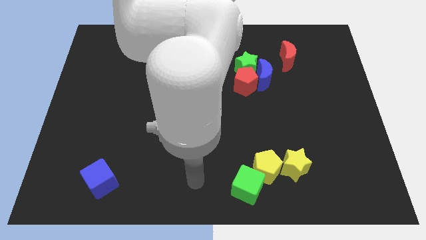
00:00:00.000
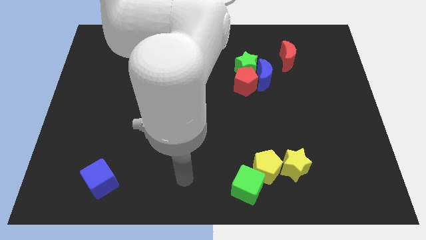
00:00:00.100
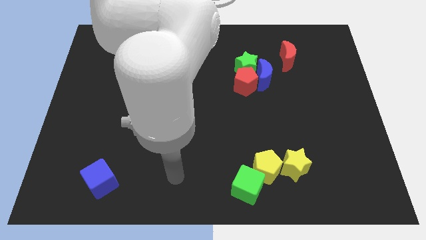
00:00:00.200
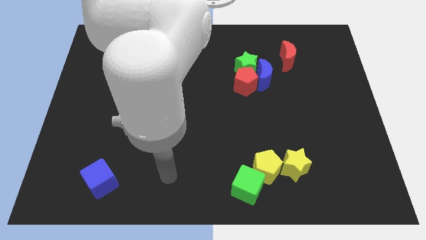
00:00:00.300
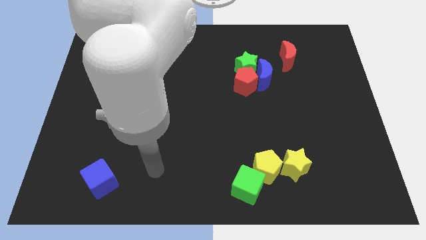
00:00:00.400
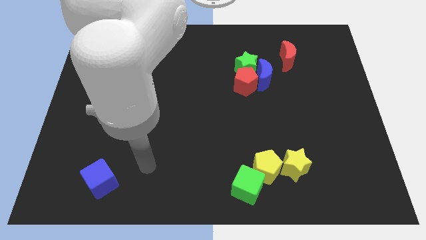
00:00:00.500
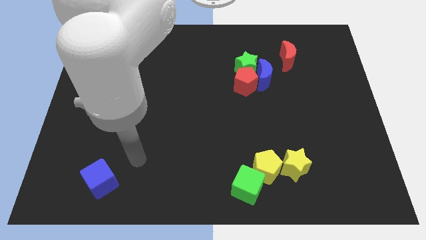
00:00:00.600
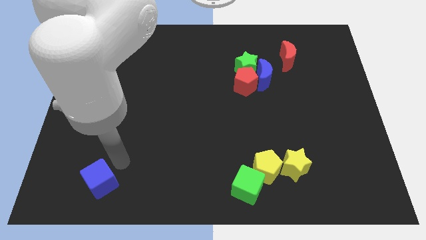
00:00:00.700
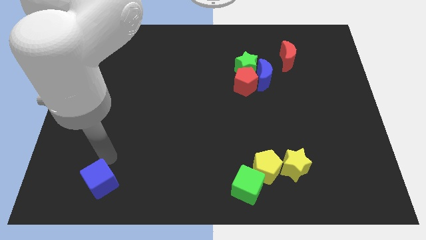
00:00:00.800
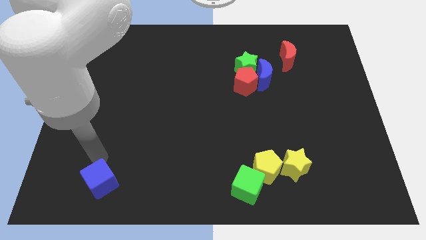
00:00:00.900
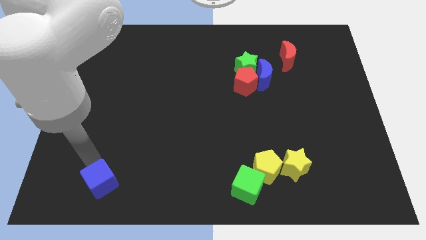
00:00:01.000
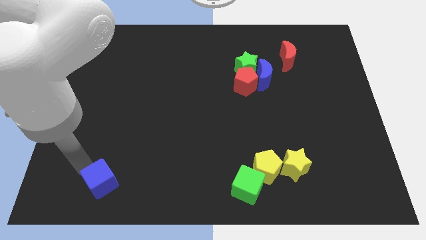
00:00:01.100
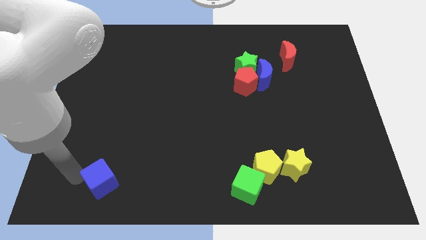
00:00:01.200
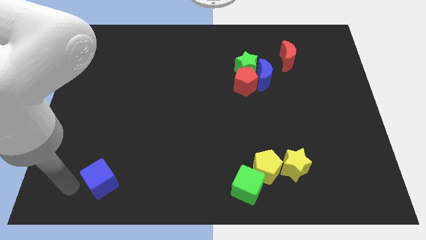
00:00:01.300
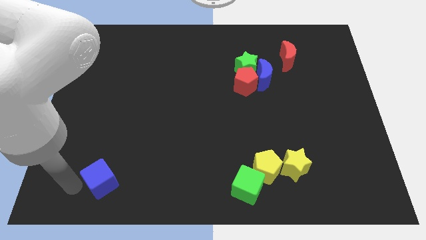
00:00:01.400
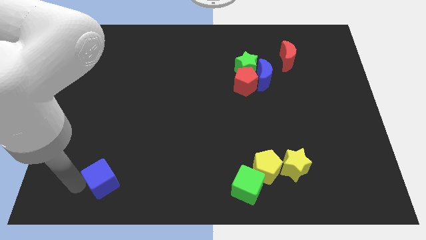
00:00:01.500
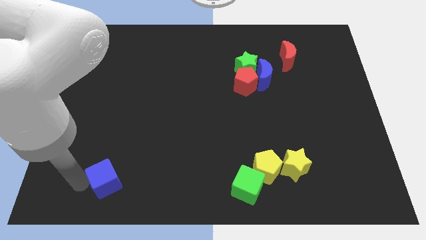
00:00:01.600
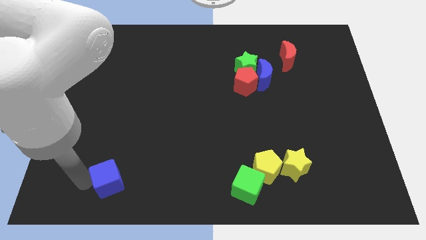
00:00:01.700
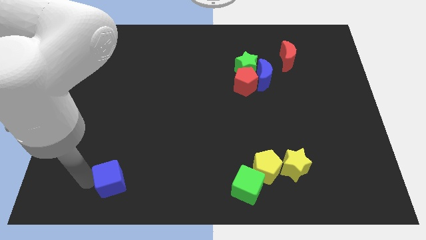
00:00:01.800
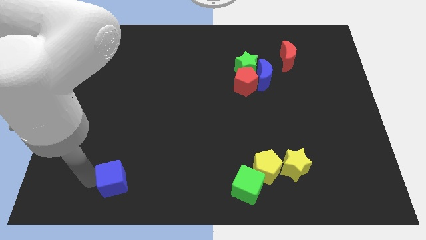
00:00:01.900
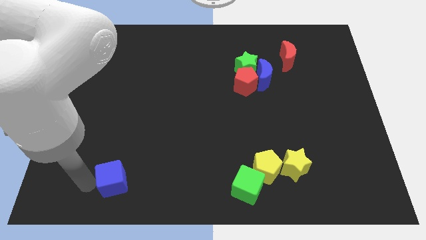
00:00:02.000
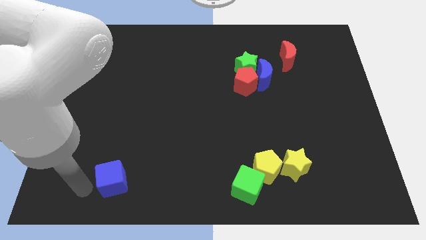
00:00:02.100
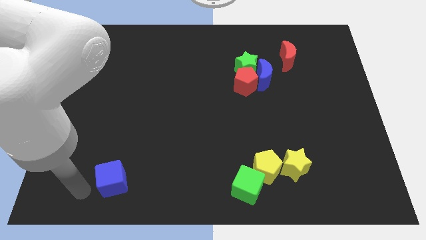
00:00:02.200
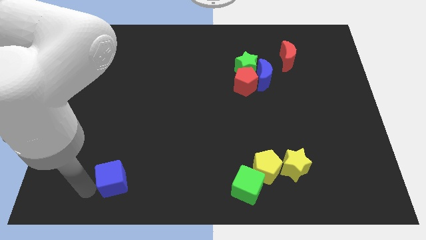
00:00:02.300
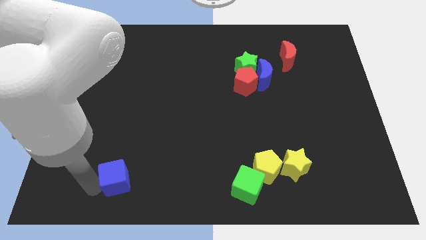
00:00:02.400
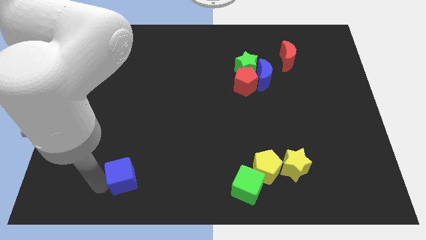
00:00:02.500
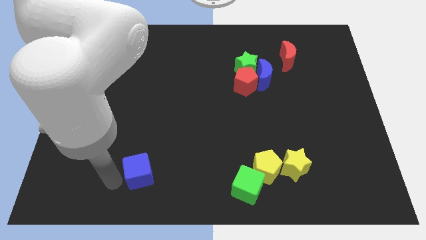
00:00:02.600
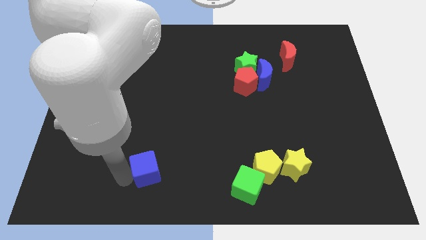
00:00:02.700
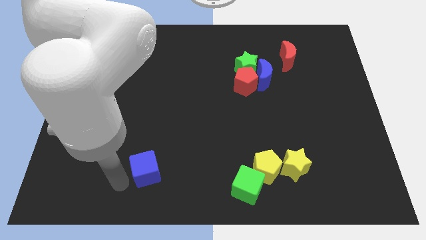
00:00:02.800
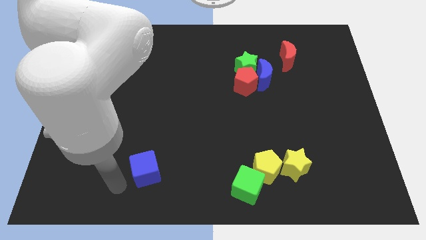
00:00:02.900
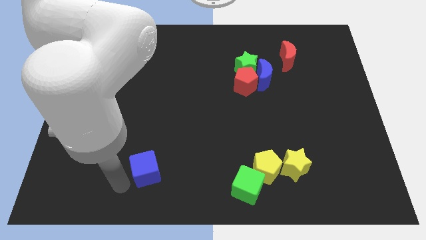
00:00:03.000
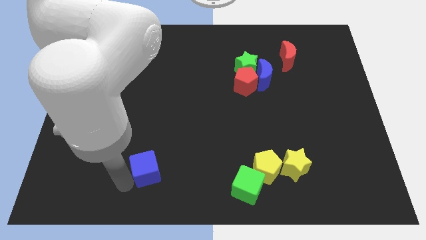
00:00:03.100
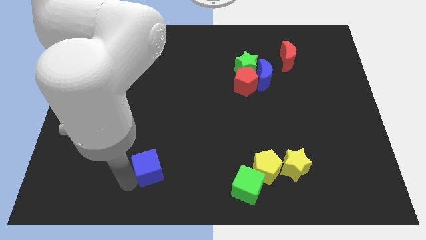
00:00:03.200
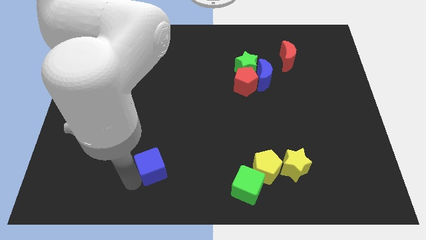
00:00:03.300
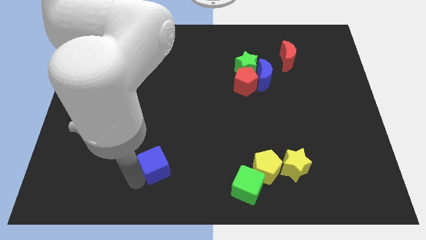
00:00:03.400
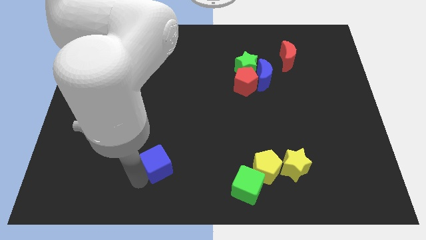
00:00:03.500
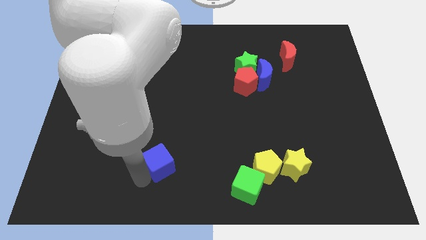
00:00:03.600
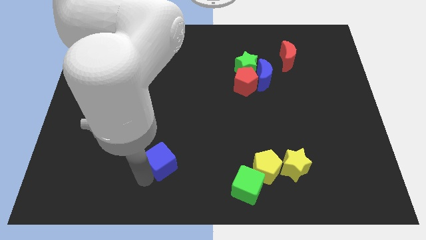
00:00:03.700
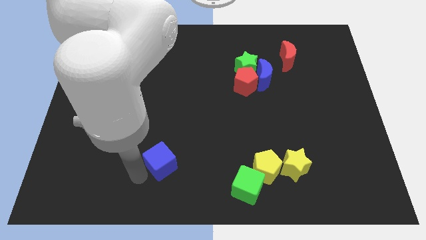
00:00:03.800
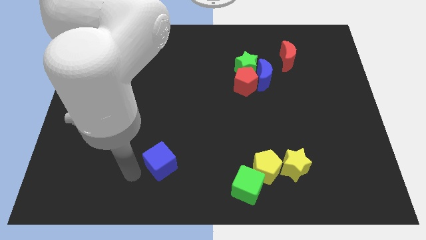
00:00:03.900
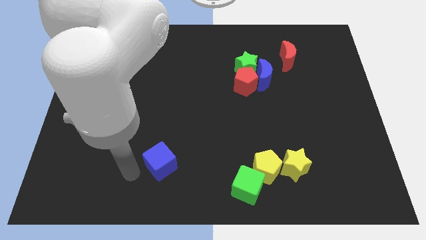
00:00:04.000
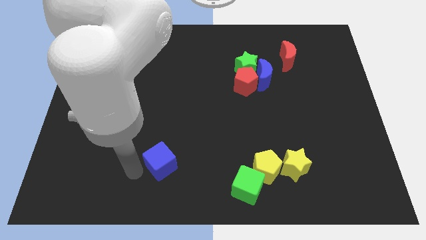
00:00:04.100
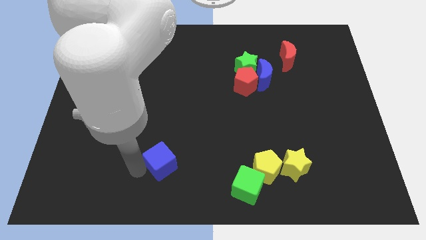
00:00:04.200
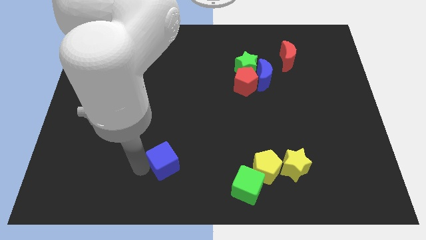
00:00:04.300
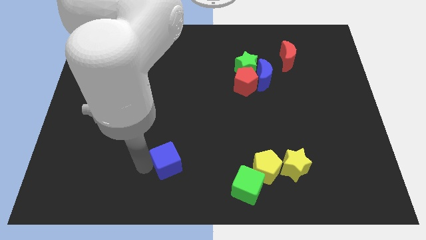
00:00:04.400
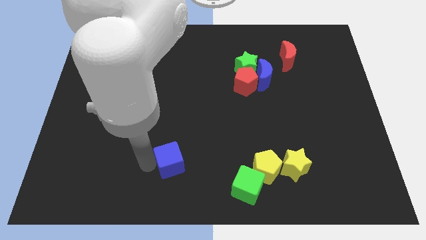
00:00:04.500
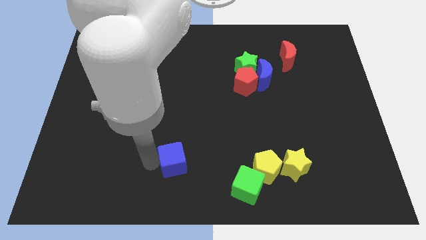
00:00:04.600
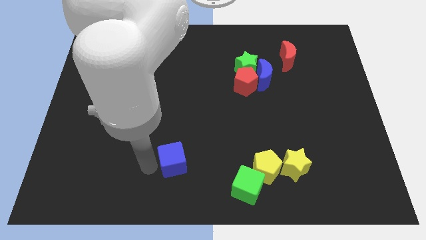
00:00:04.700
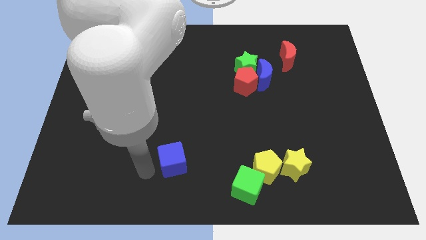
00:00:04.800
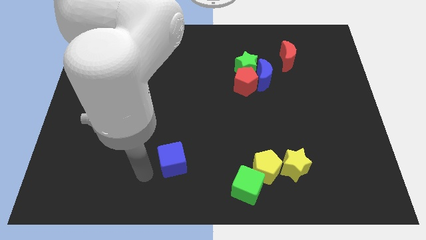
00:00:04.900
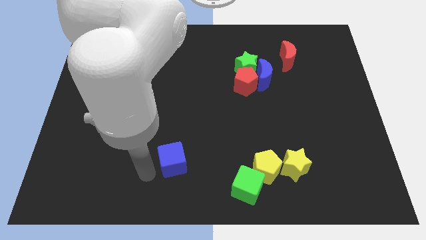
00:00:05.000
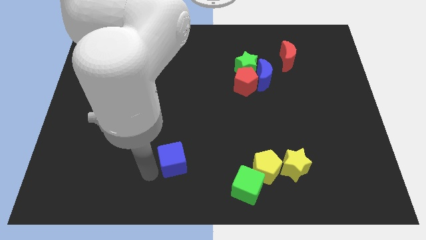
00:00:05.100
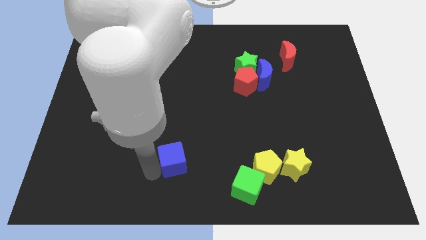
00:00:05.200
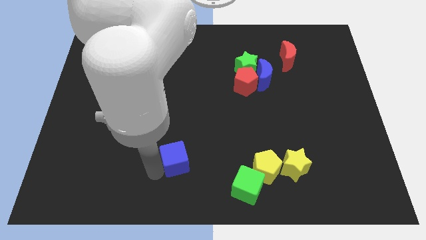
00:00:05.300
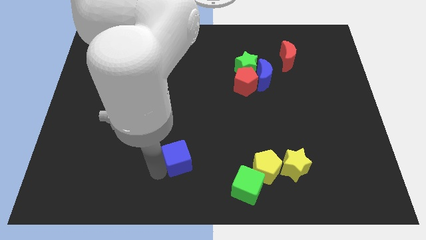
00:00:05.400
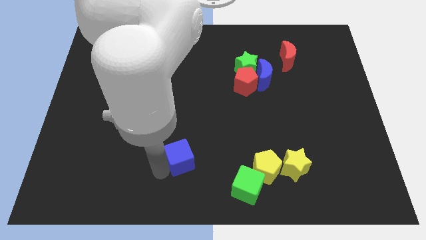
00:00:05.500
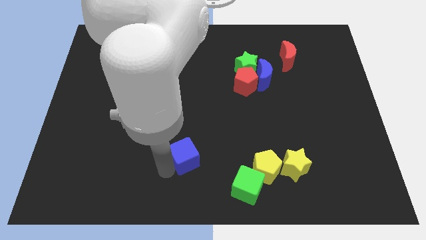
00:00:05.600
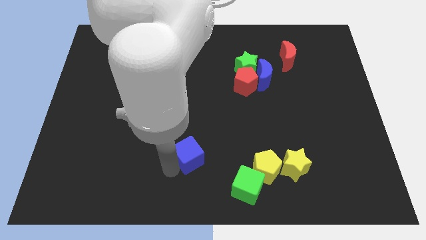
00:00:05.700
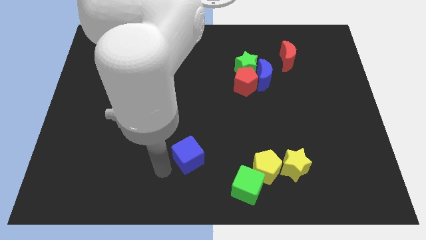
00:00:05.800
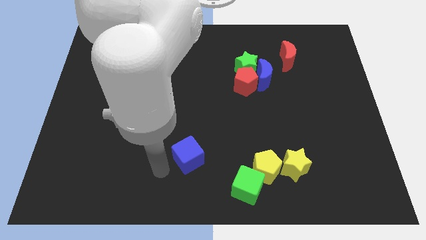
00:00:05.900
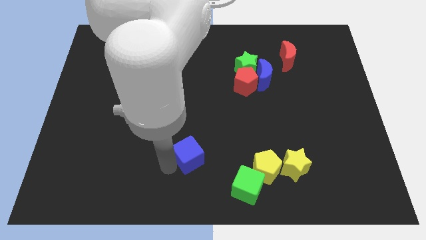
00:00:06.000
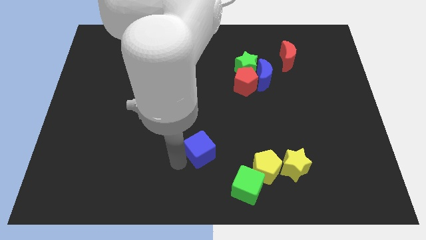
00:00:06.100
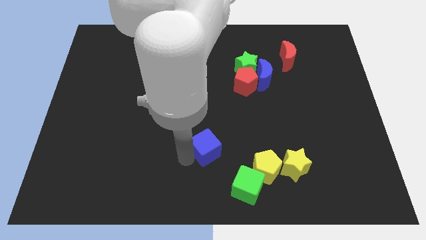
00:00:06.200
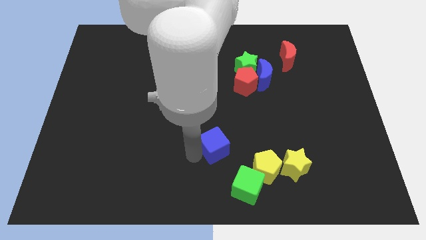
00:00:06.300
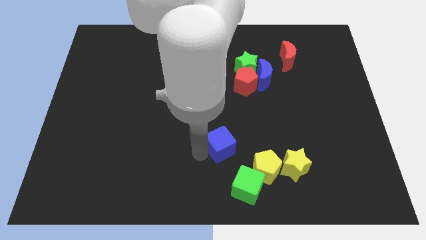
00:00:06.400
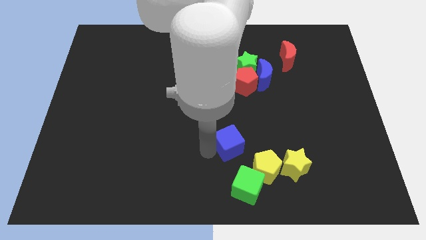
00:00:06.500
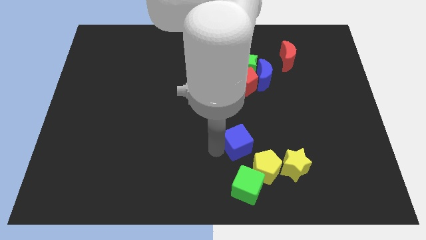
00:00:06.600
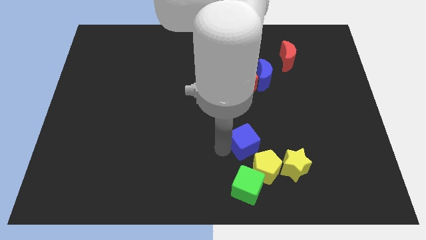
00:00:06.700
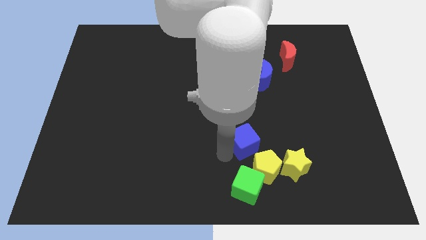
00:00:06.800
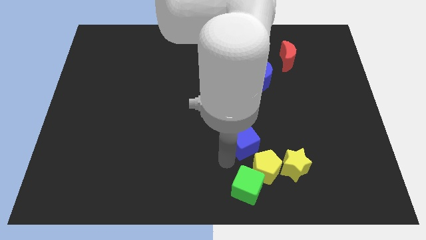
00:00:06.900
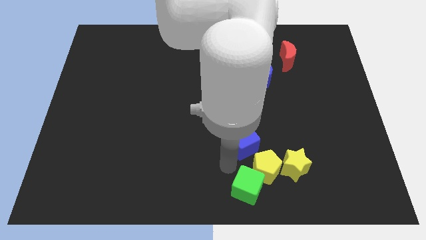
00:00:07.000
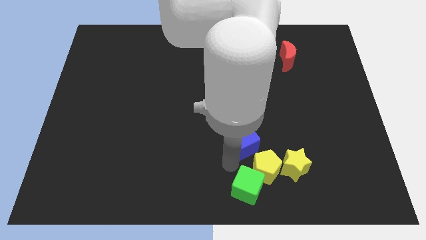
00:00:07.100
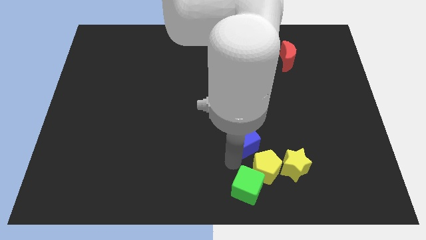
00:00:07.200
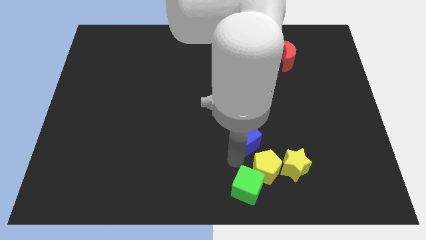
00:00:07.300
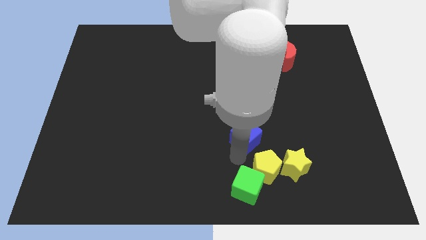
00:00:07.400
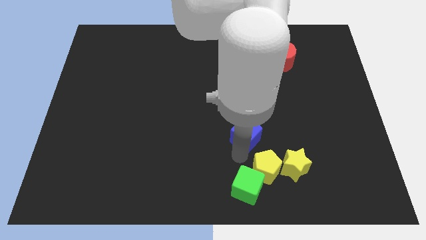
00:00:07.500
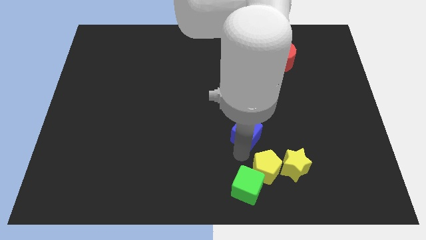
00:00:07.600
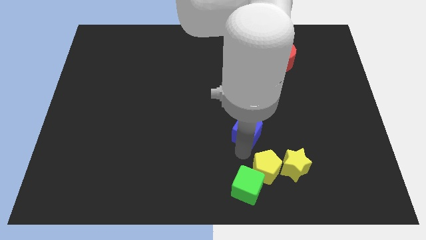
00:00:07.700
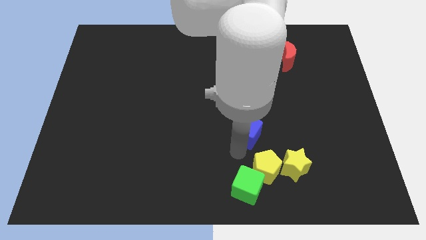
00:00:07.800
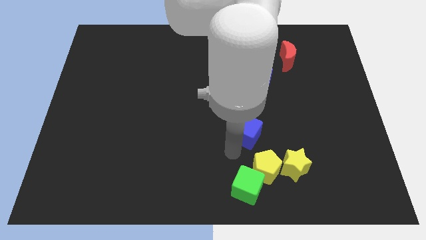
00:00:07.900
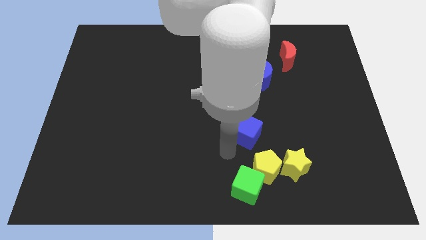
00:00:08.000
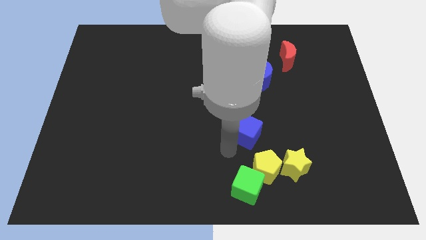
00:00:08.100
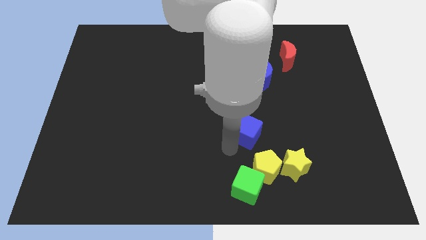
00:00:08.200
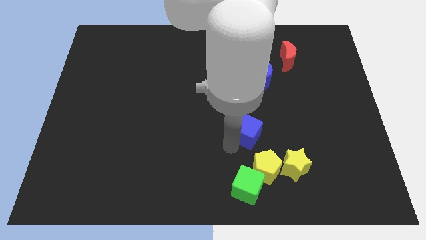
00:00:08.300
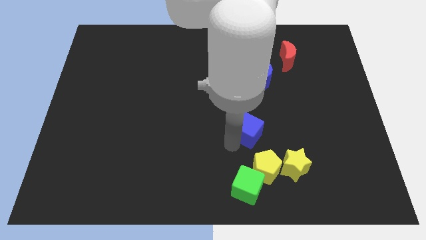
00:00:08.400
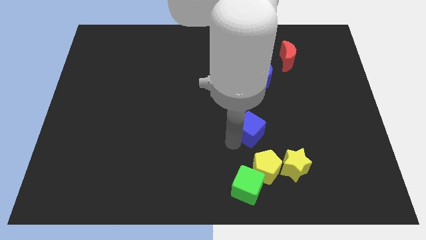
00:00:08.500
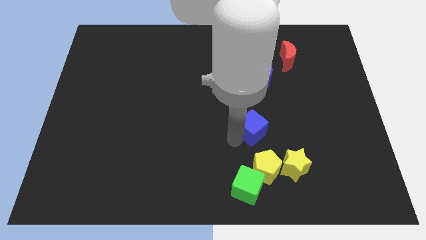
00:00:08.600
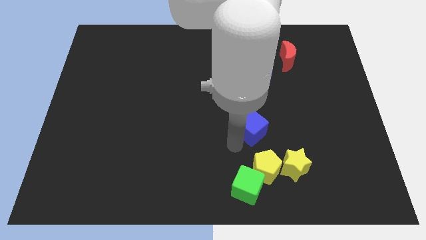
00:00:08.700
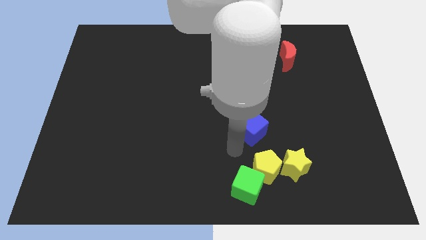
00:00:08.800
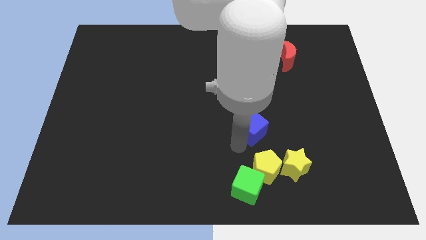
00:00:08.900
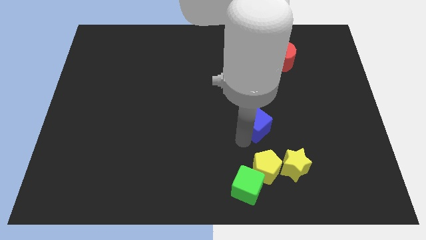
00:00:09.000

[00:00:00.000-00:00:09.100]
put the blue cube to the bottom of the blue moon
